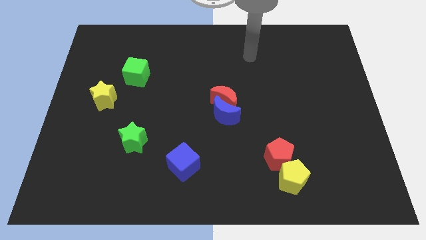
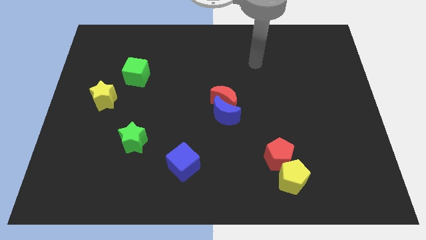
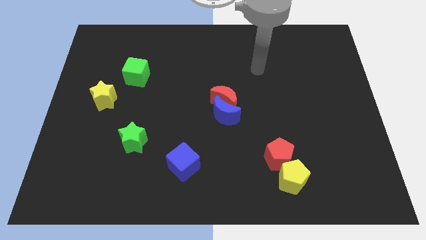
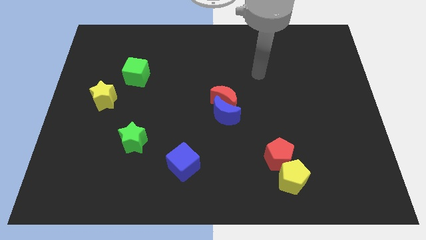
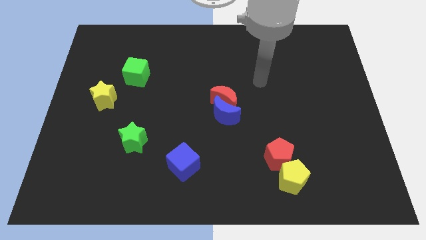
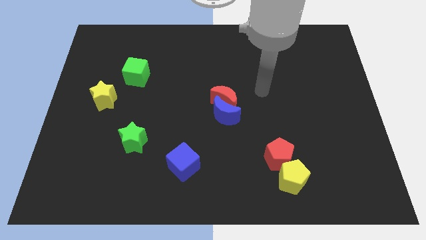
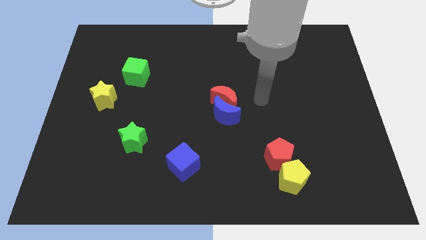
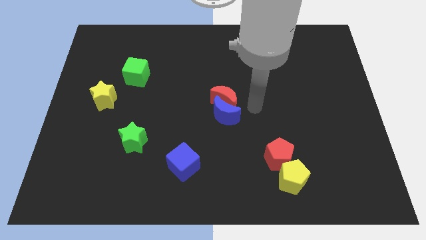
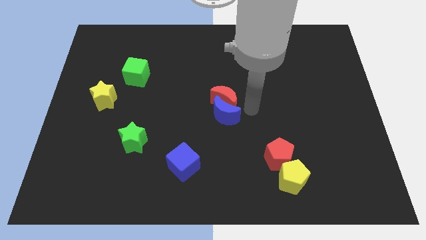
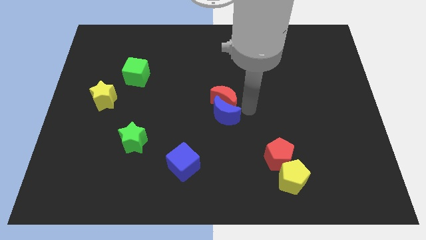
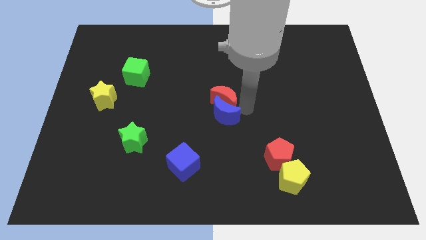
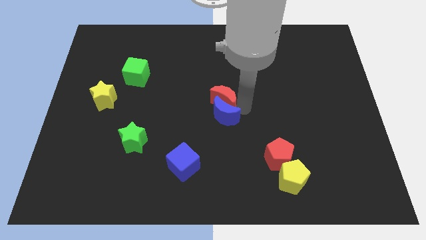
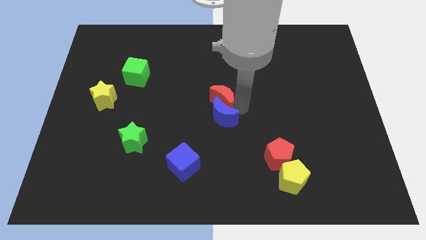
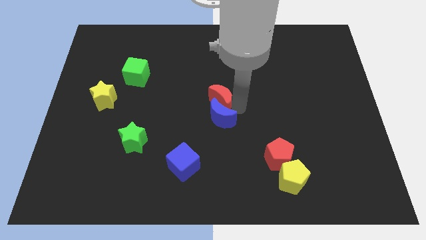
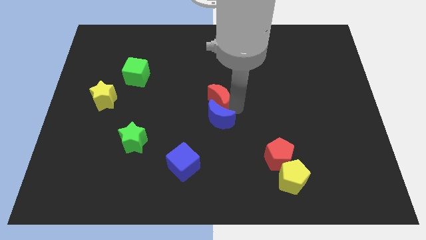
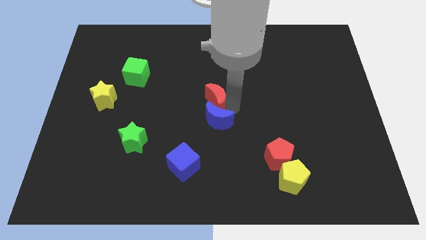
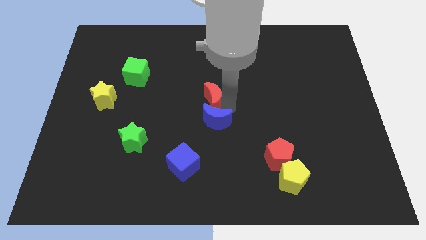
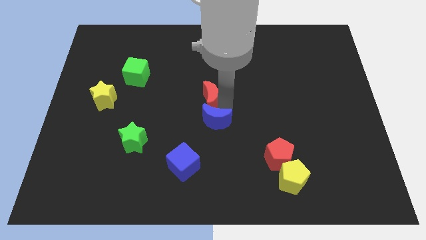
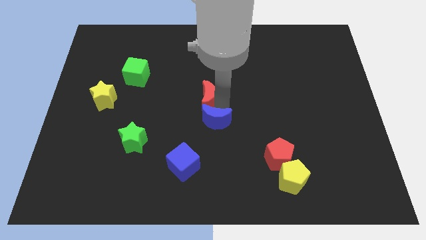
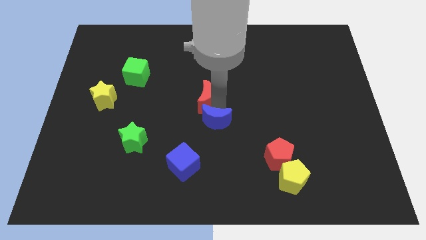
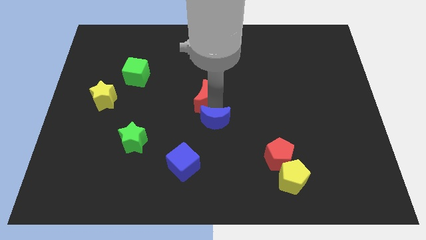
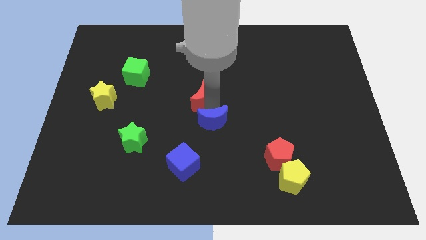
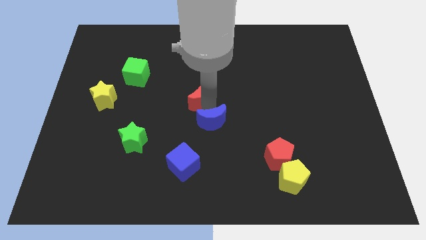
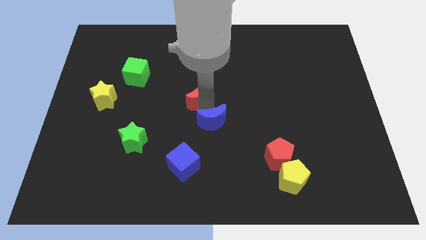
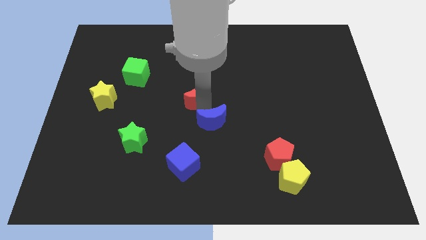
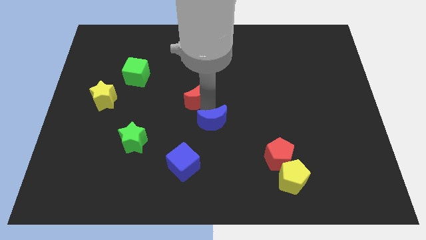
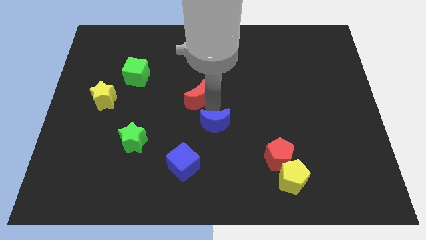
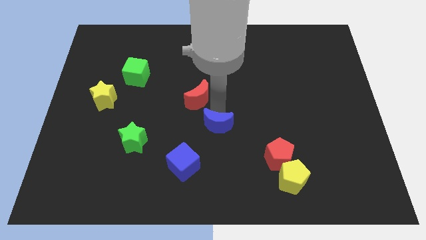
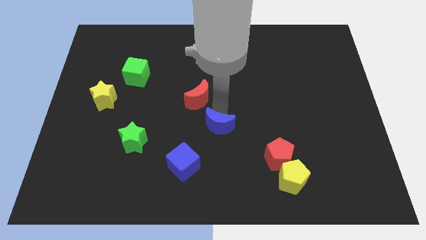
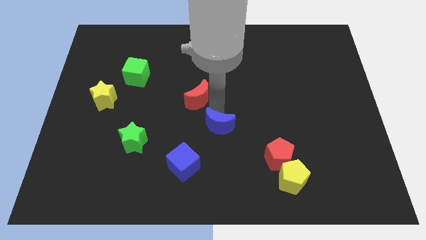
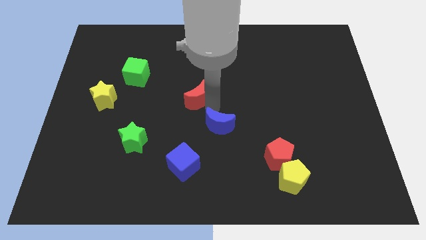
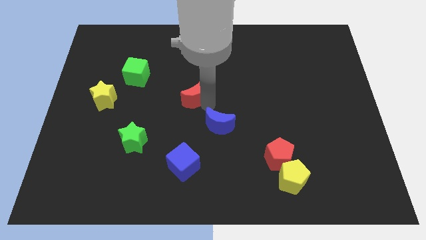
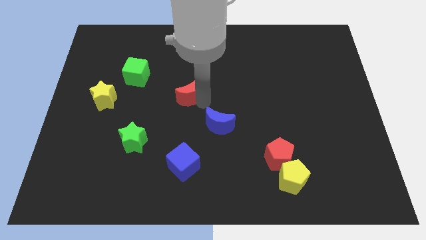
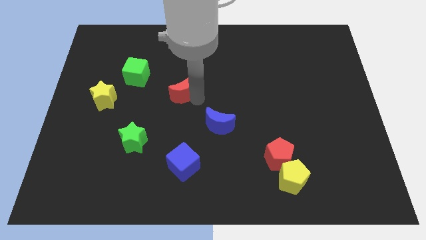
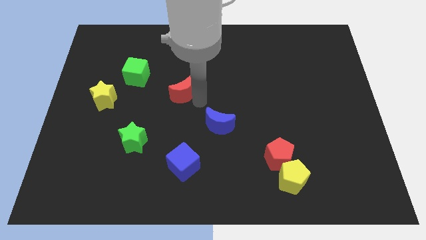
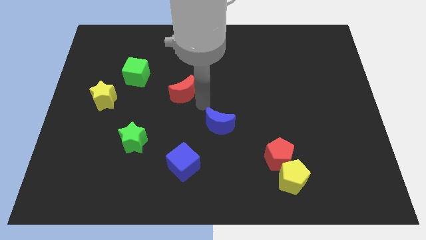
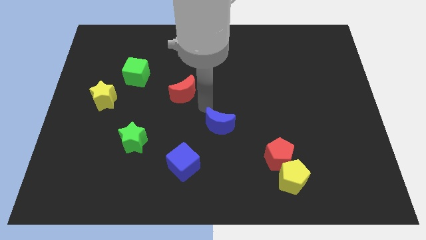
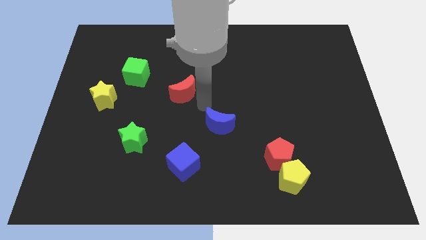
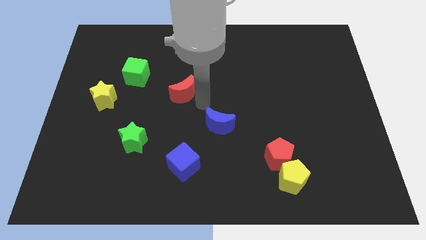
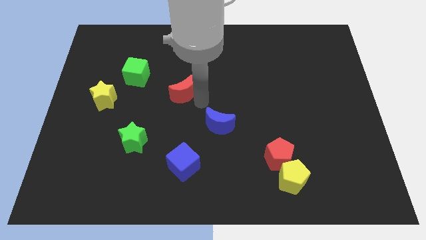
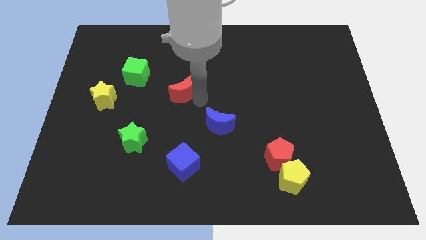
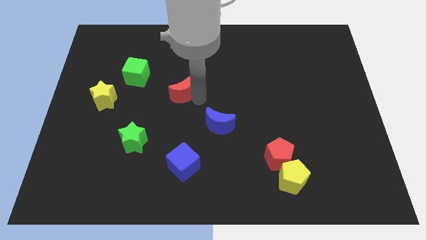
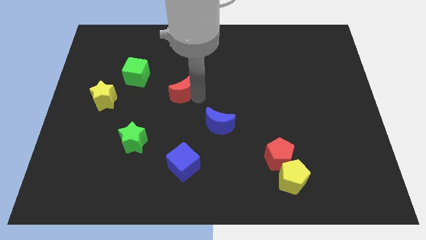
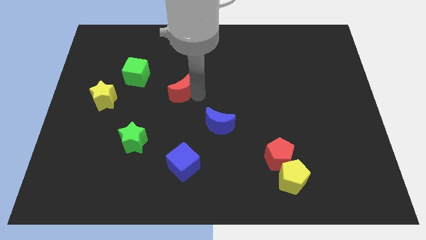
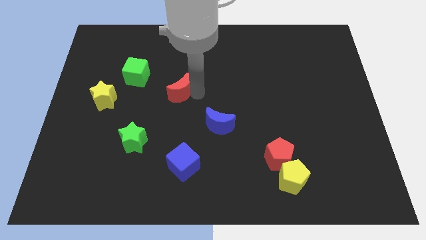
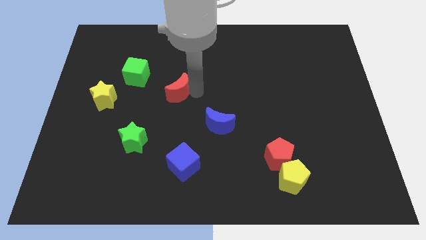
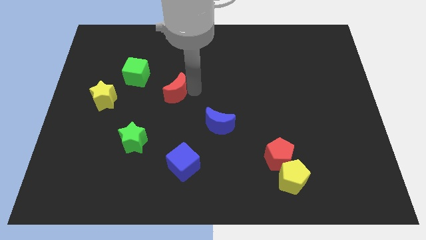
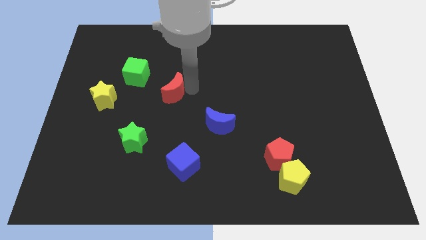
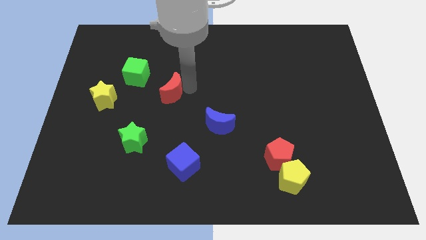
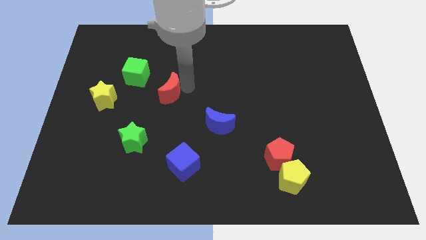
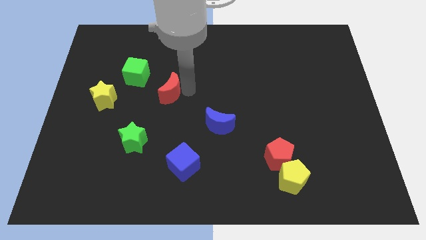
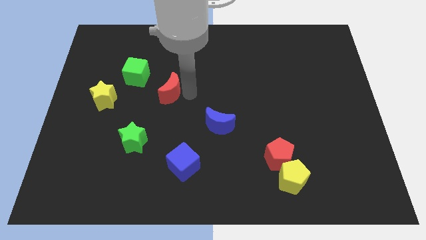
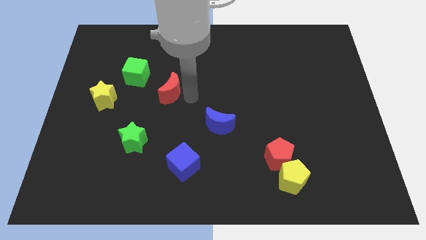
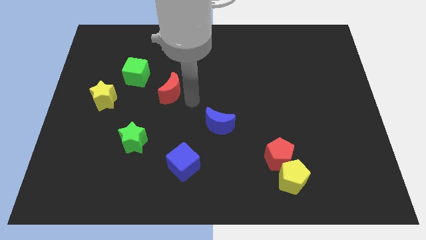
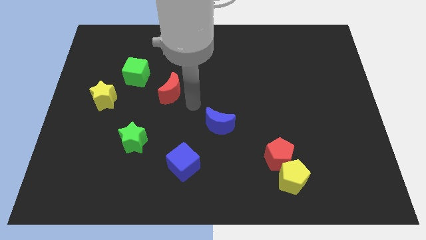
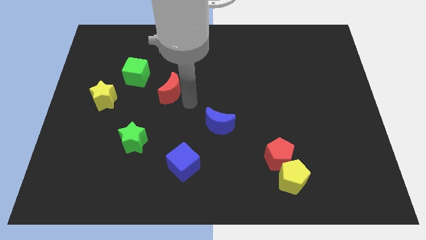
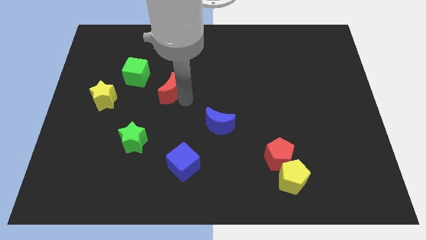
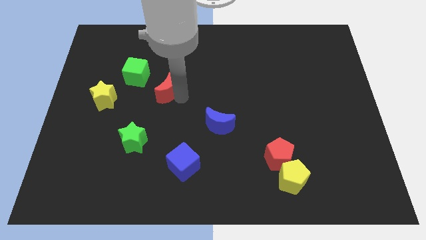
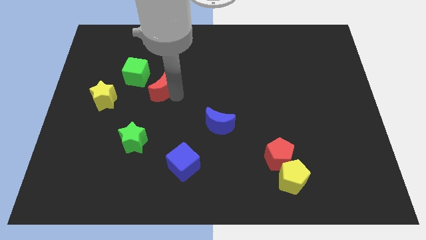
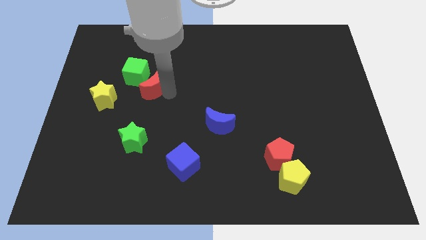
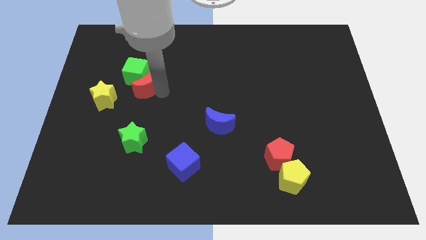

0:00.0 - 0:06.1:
push the red moon towards the green cube

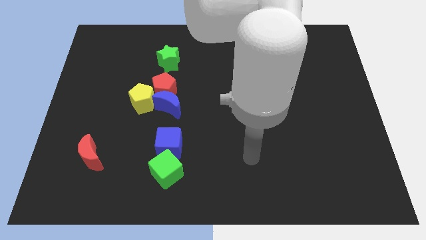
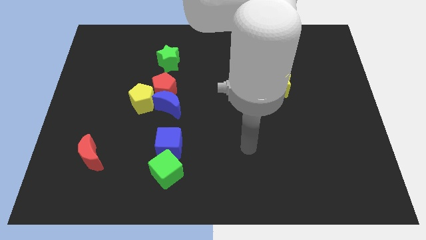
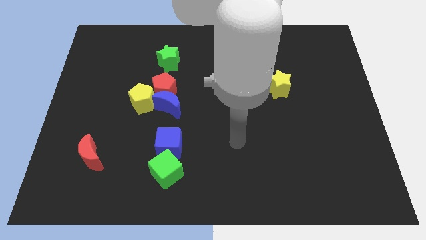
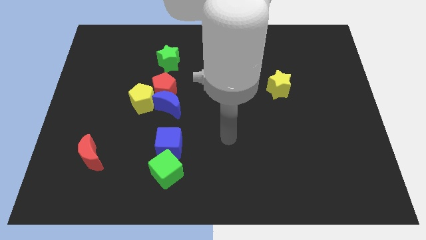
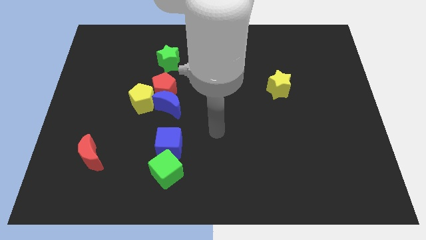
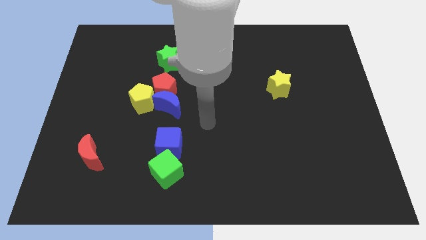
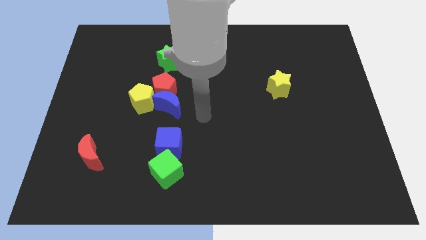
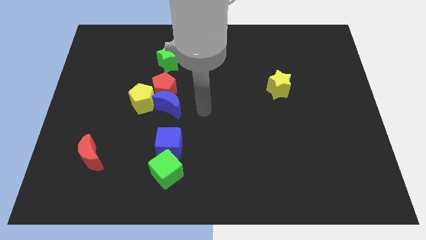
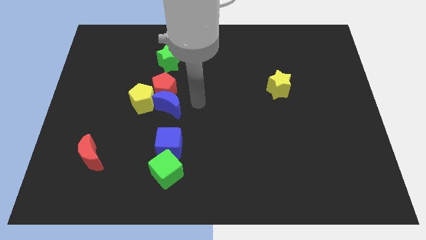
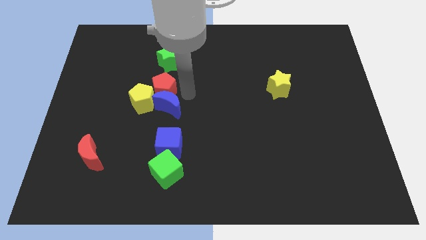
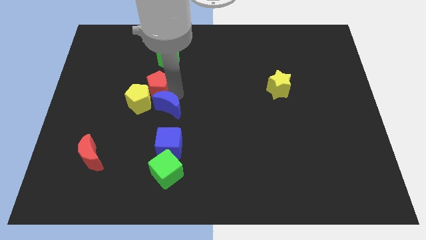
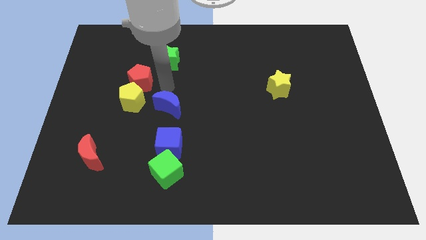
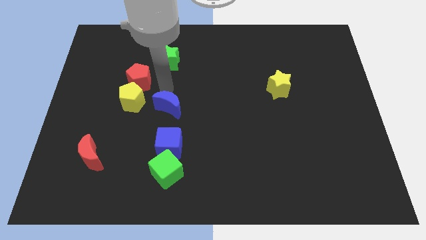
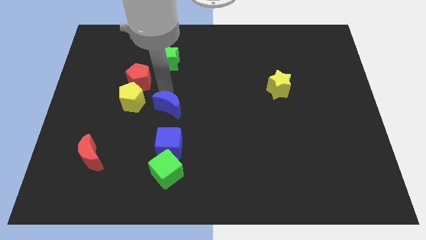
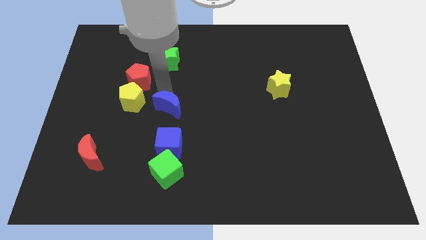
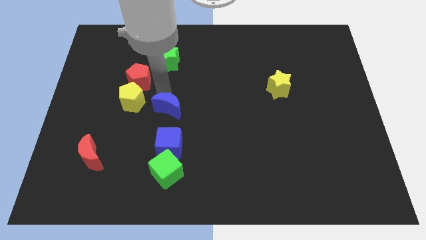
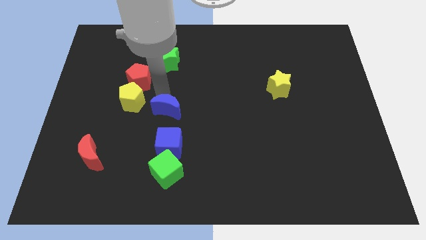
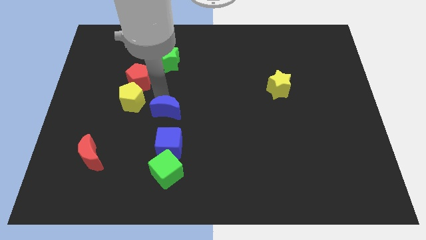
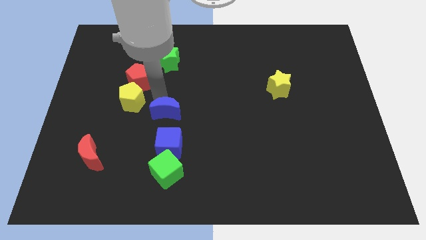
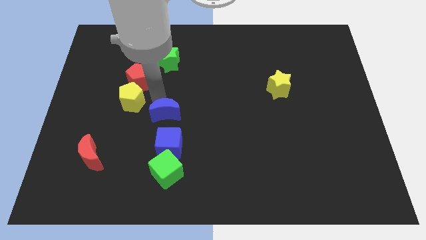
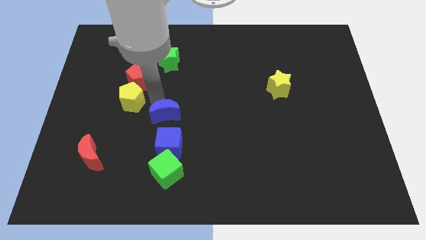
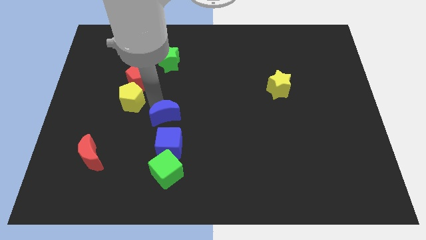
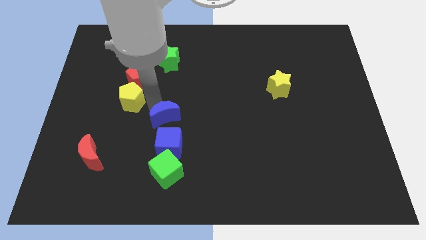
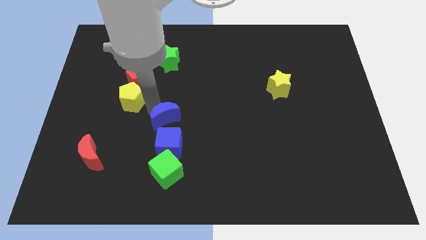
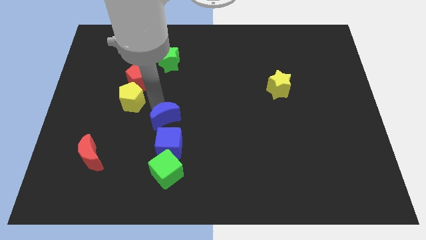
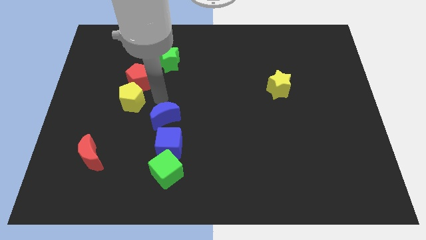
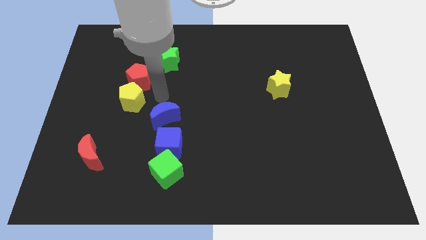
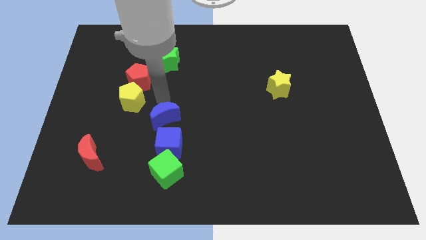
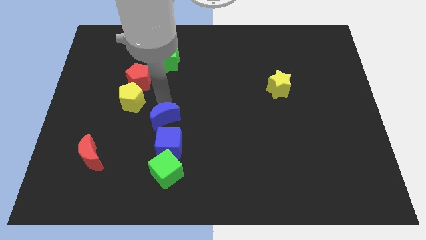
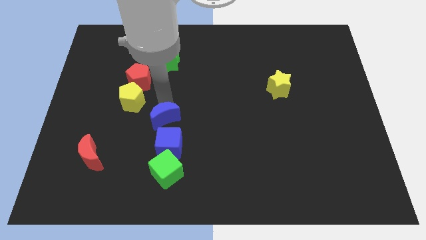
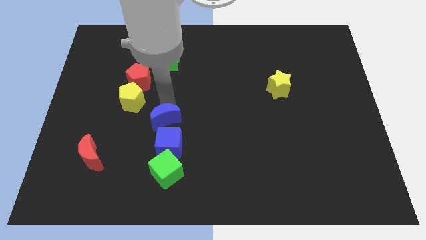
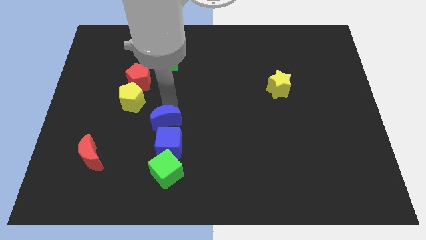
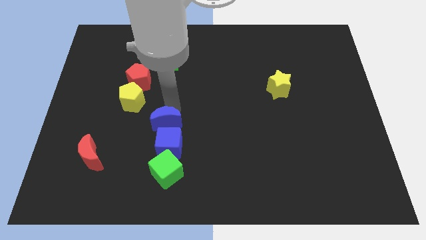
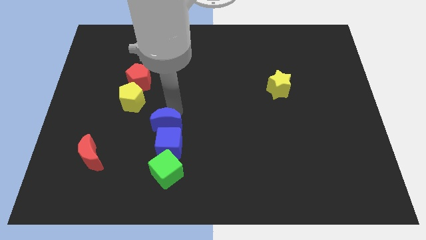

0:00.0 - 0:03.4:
put the blue moon close to the blue cube
